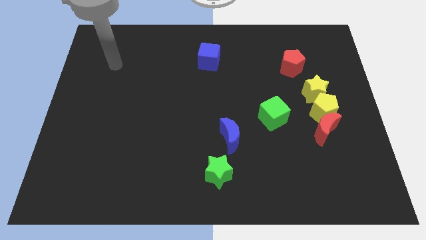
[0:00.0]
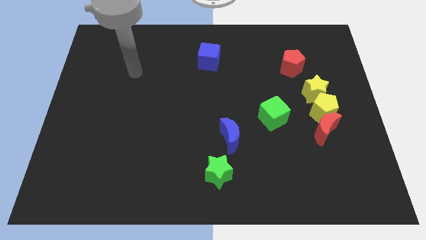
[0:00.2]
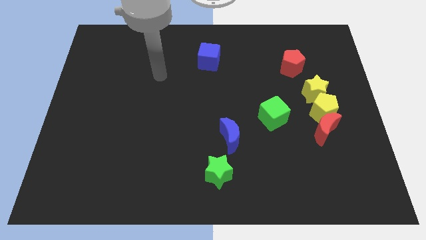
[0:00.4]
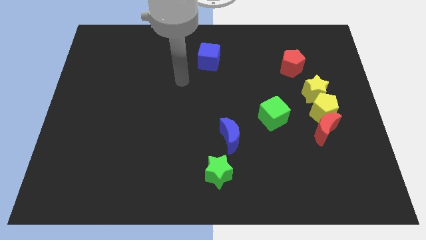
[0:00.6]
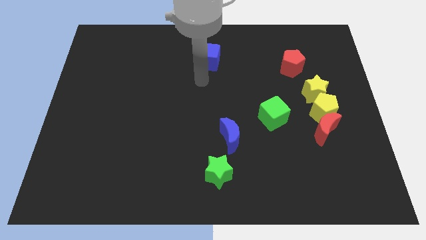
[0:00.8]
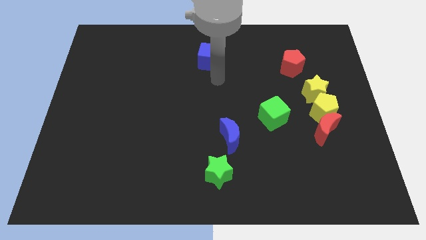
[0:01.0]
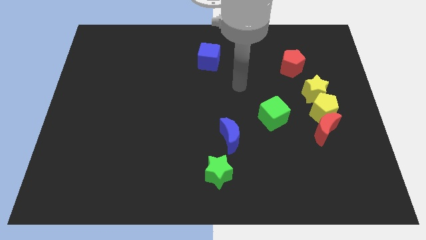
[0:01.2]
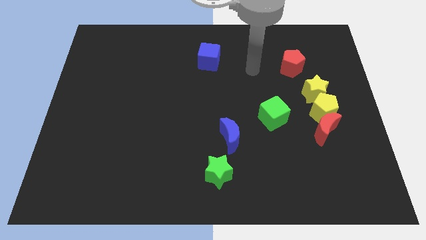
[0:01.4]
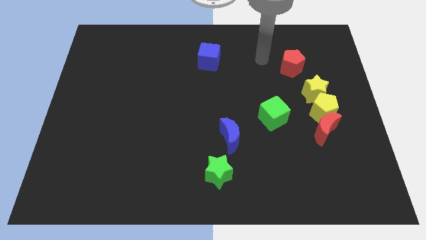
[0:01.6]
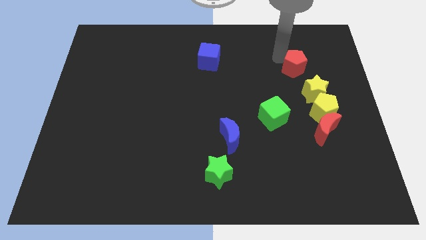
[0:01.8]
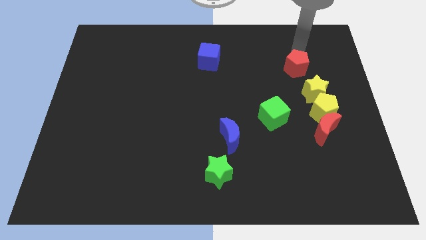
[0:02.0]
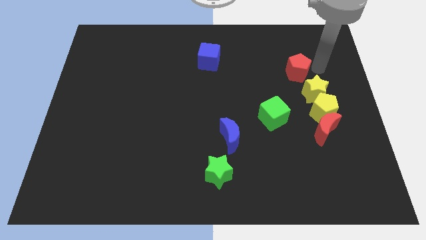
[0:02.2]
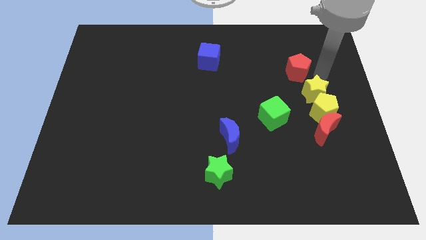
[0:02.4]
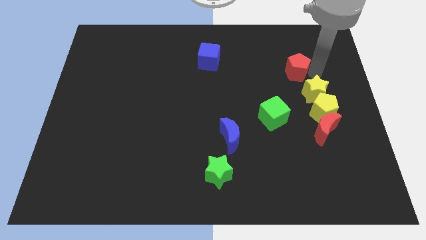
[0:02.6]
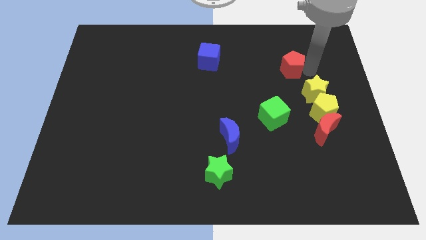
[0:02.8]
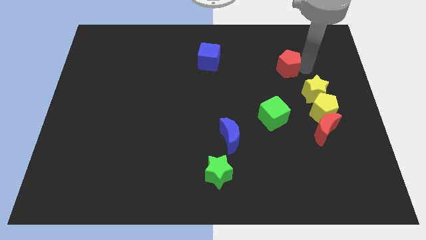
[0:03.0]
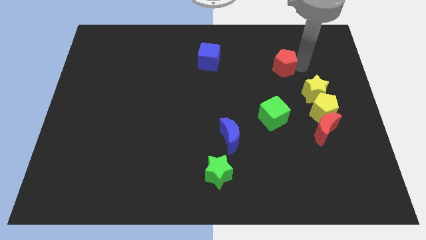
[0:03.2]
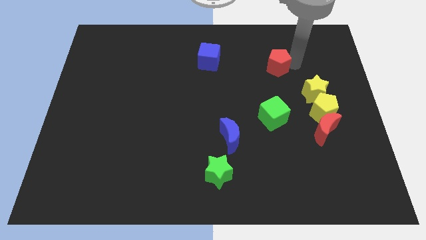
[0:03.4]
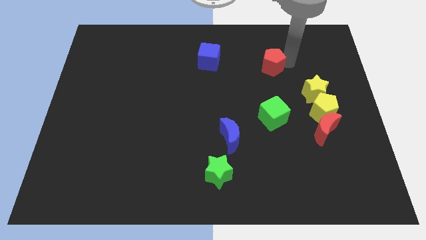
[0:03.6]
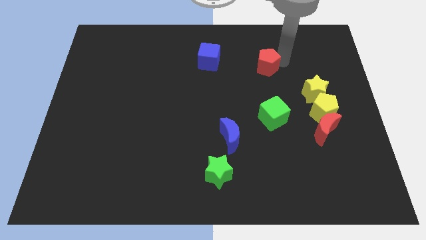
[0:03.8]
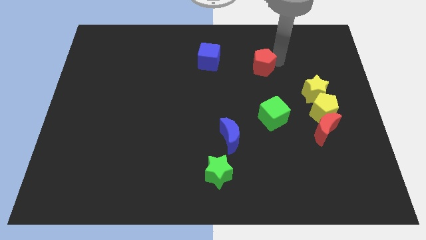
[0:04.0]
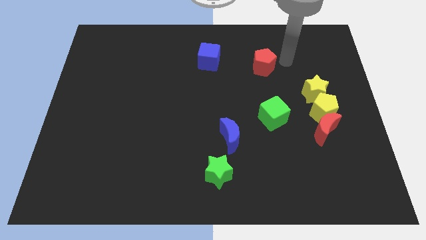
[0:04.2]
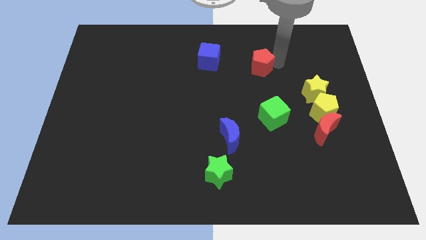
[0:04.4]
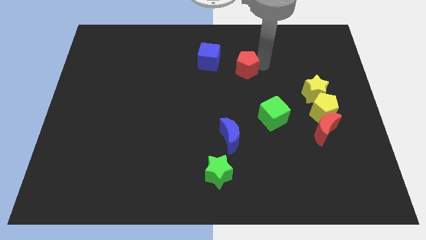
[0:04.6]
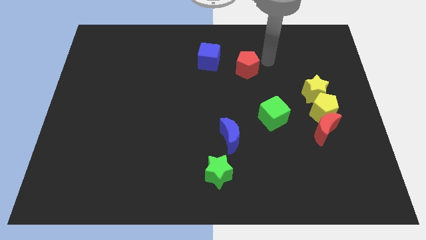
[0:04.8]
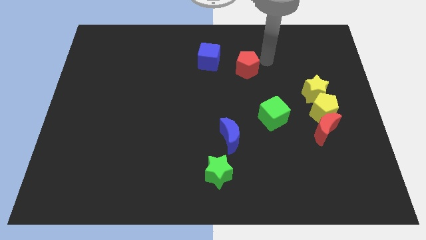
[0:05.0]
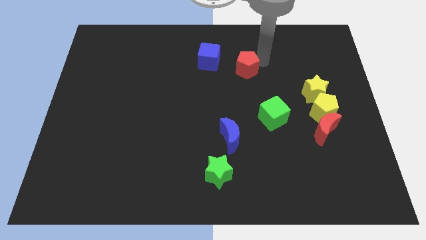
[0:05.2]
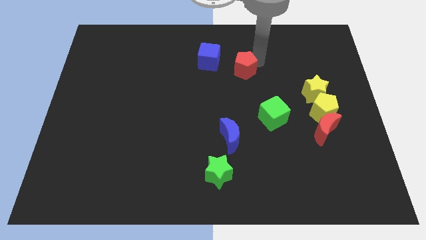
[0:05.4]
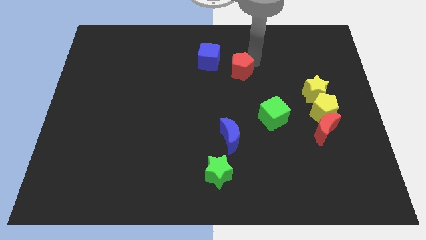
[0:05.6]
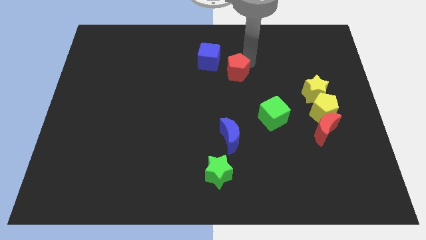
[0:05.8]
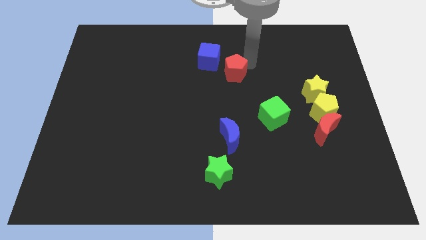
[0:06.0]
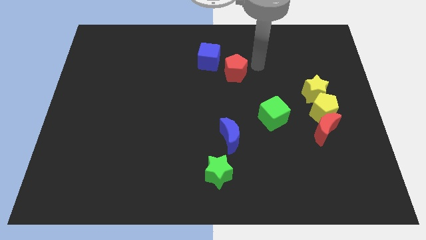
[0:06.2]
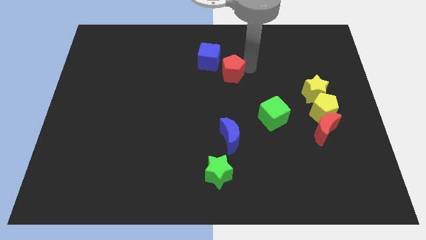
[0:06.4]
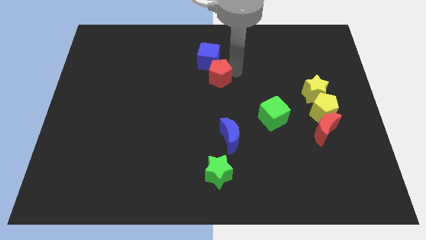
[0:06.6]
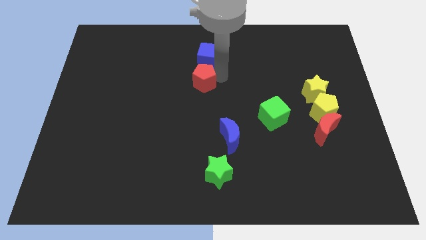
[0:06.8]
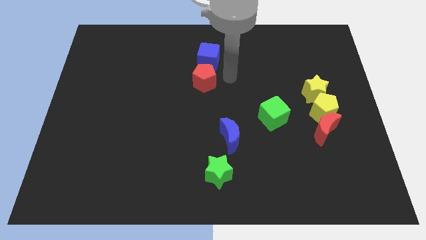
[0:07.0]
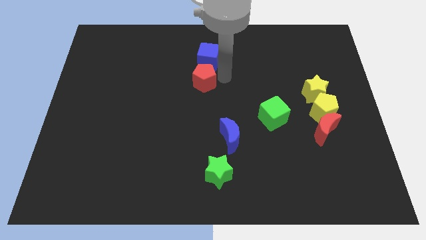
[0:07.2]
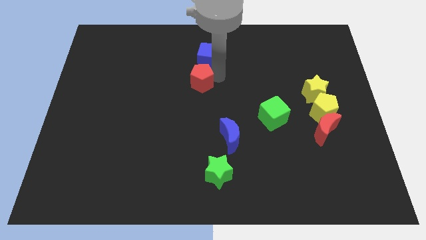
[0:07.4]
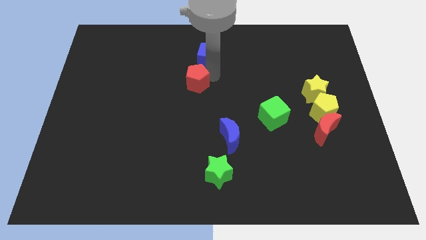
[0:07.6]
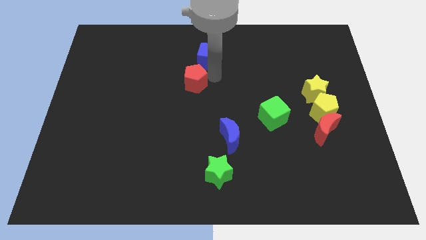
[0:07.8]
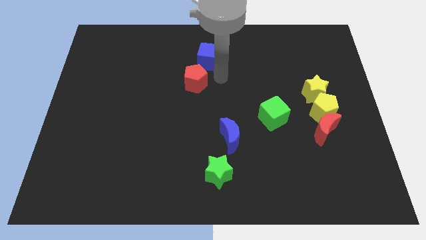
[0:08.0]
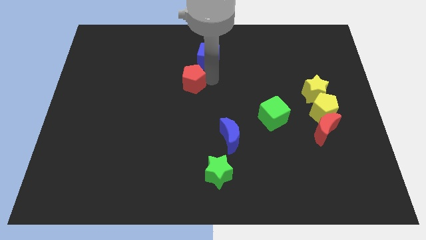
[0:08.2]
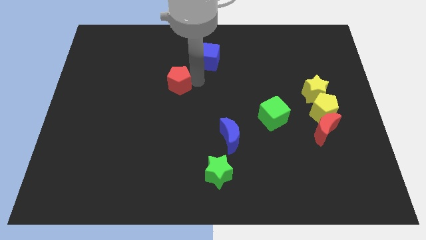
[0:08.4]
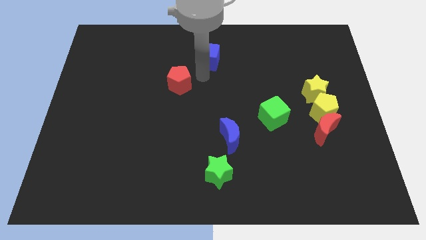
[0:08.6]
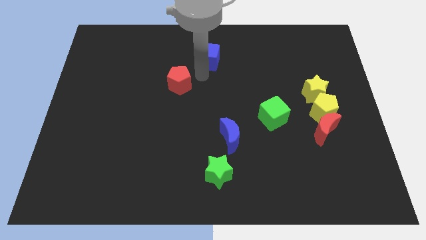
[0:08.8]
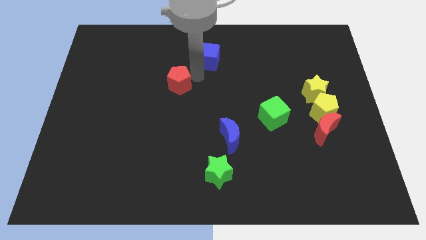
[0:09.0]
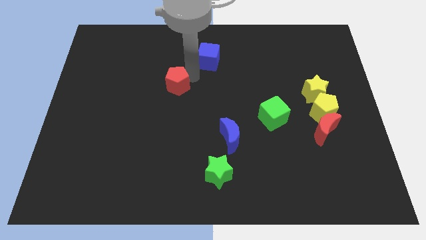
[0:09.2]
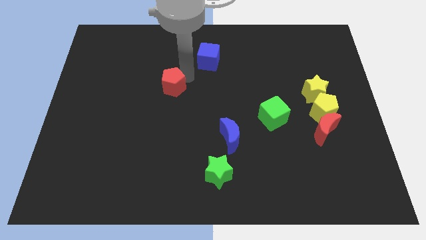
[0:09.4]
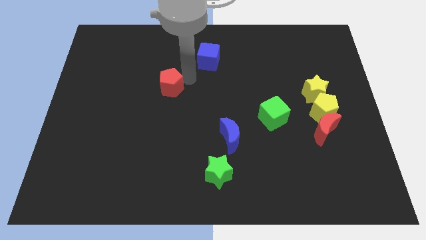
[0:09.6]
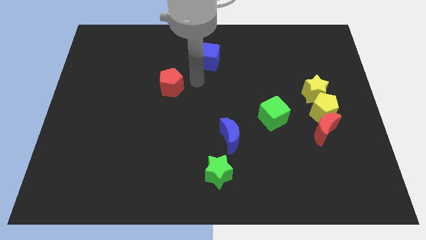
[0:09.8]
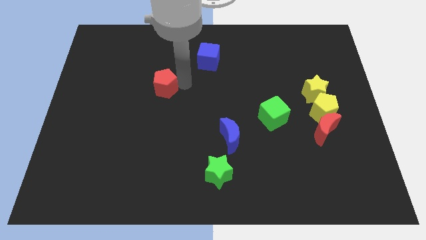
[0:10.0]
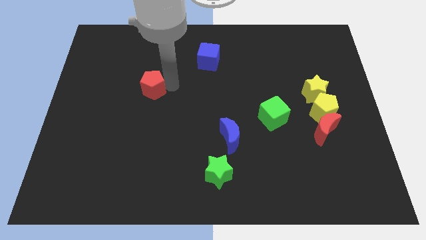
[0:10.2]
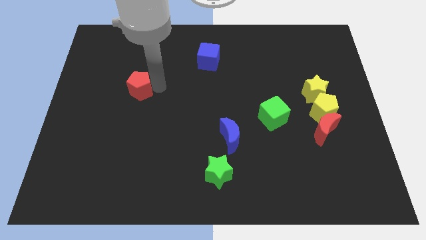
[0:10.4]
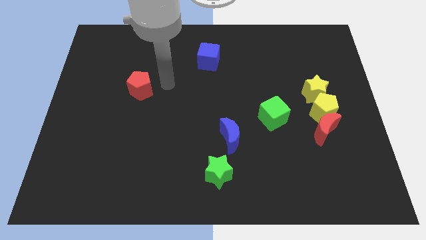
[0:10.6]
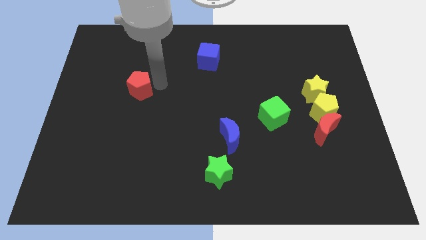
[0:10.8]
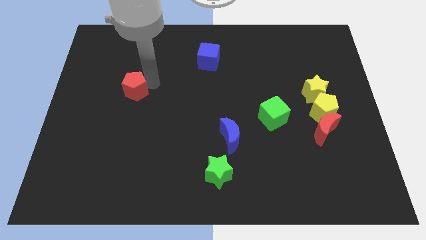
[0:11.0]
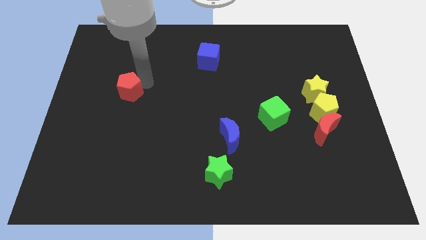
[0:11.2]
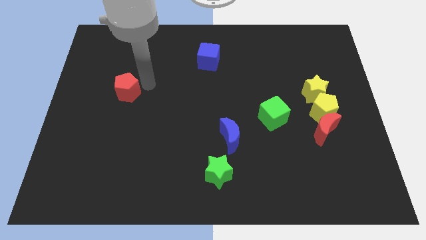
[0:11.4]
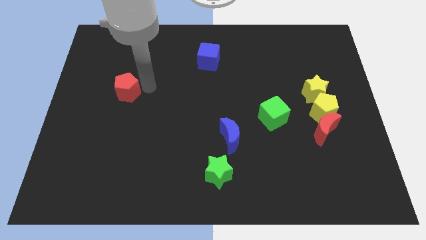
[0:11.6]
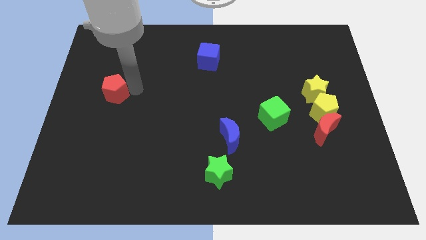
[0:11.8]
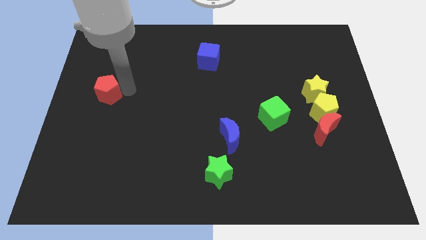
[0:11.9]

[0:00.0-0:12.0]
put the red pentagon to the left side of the board
